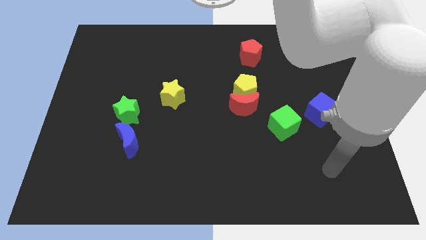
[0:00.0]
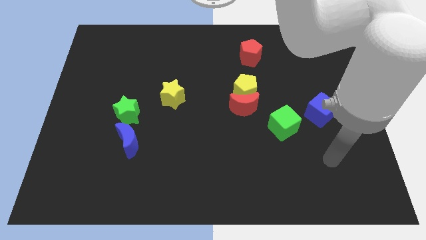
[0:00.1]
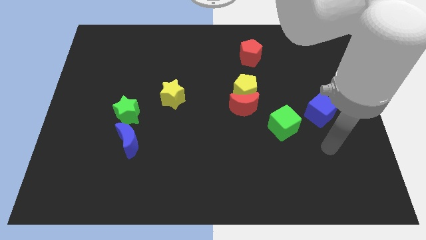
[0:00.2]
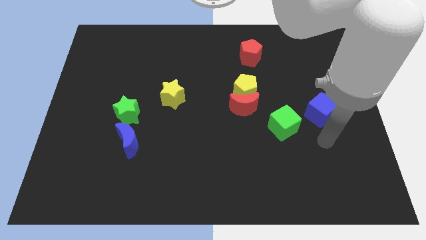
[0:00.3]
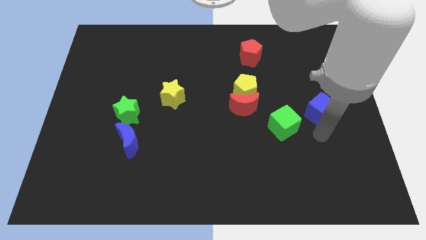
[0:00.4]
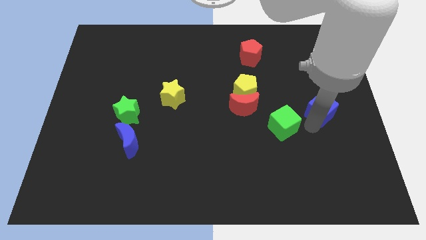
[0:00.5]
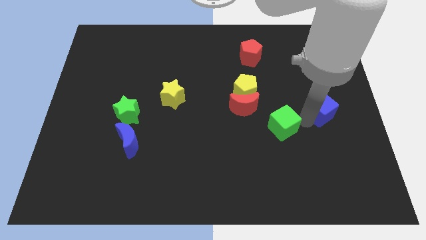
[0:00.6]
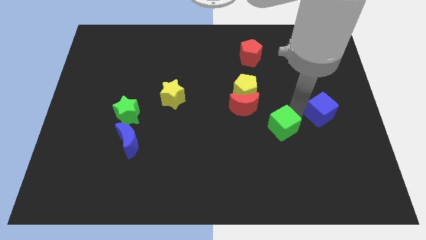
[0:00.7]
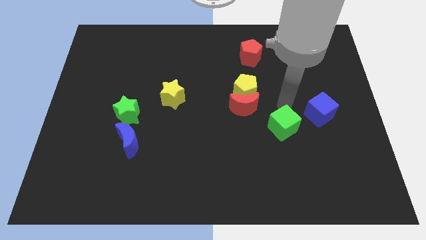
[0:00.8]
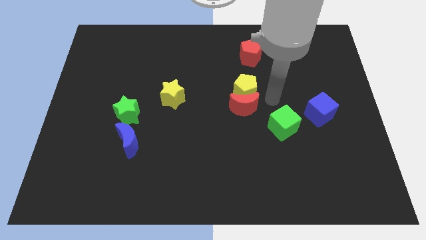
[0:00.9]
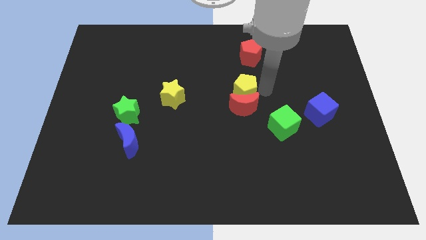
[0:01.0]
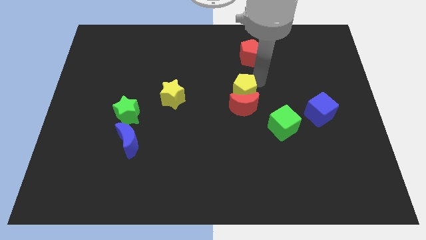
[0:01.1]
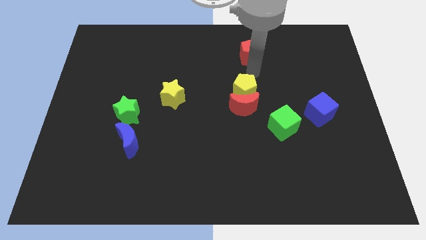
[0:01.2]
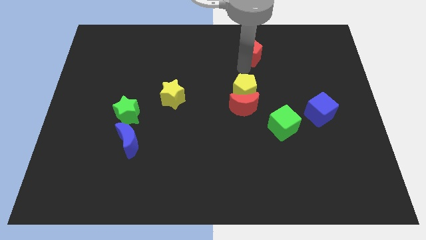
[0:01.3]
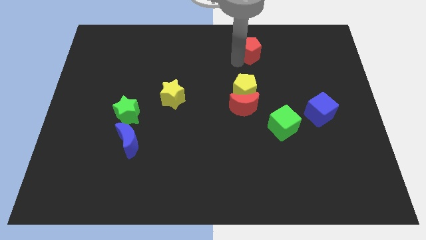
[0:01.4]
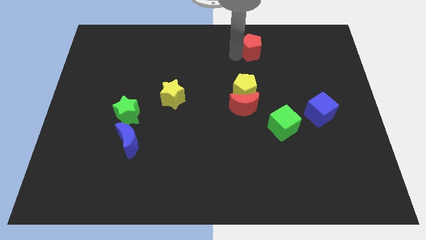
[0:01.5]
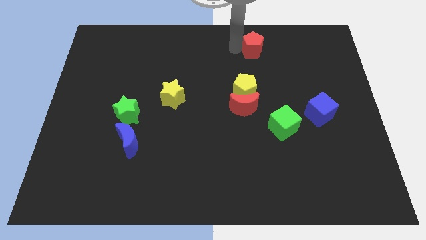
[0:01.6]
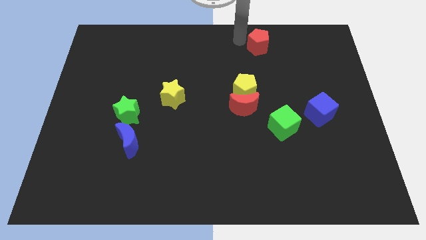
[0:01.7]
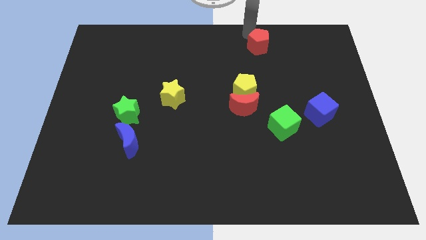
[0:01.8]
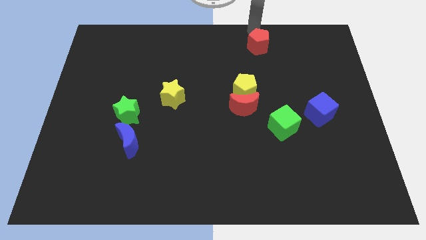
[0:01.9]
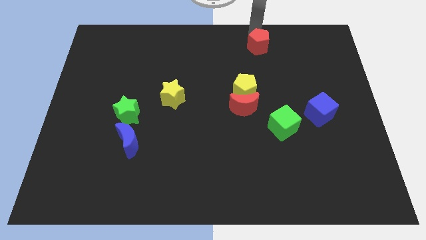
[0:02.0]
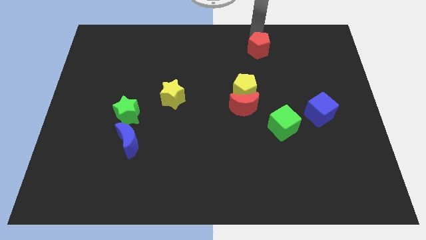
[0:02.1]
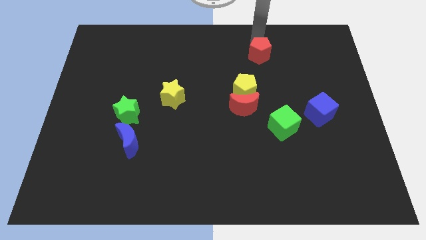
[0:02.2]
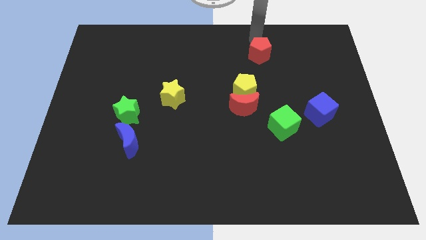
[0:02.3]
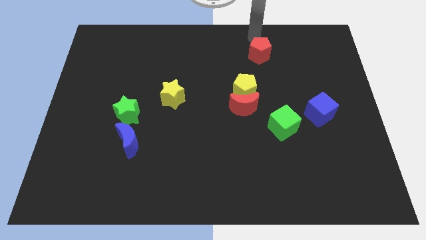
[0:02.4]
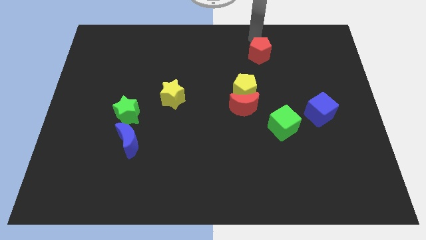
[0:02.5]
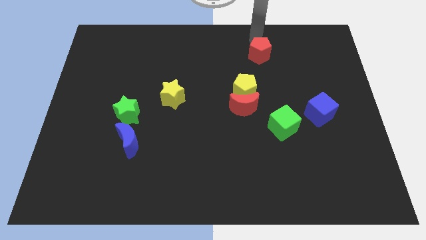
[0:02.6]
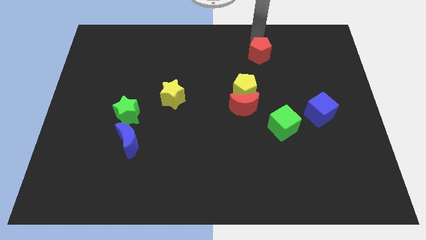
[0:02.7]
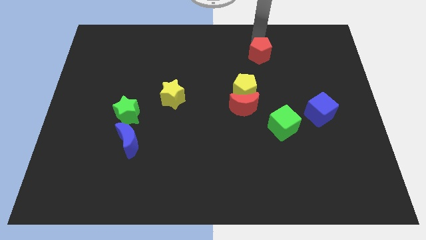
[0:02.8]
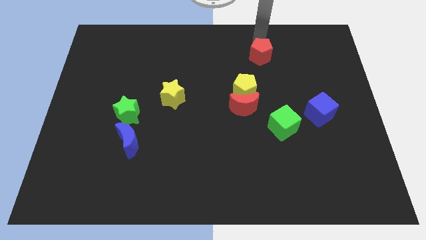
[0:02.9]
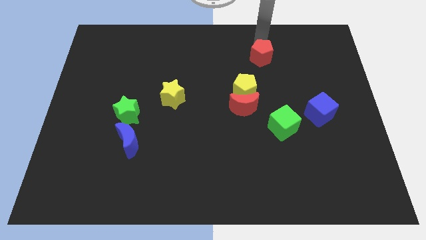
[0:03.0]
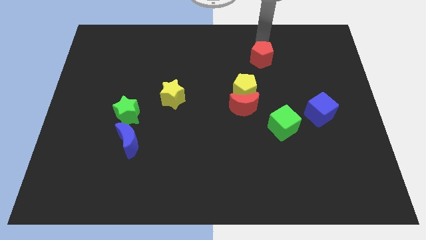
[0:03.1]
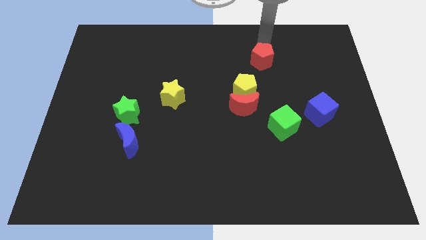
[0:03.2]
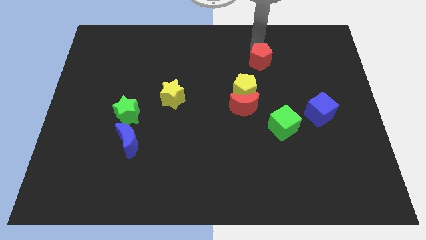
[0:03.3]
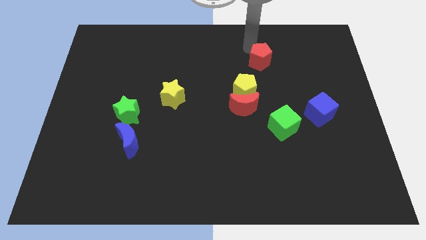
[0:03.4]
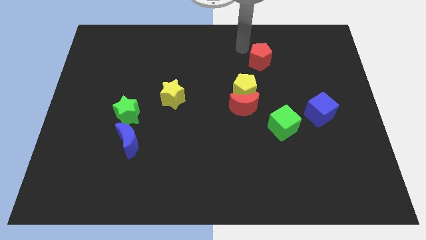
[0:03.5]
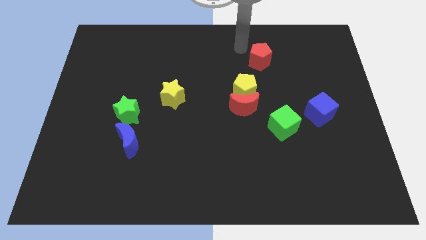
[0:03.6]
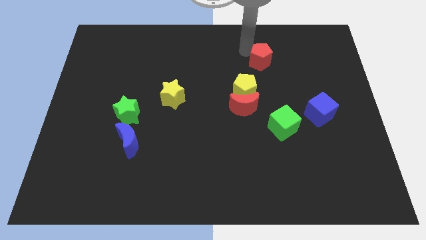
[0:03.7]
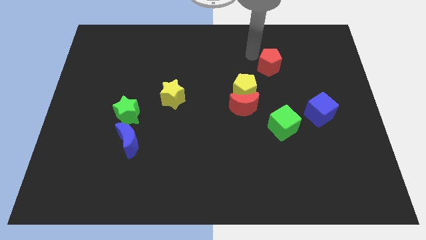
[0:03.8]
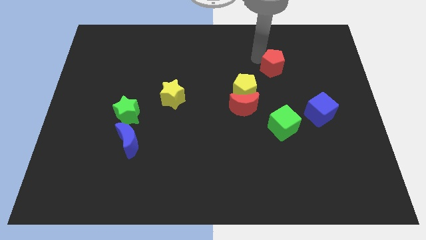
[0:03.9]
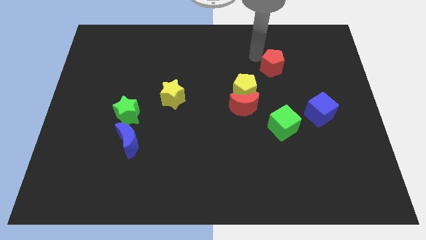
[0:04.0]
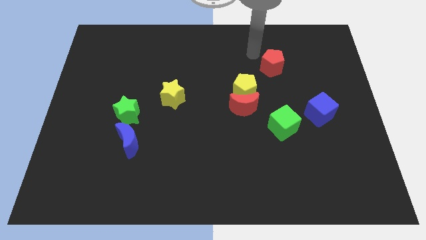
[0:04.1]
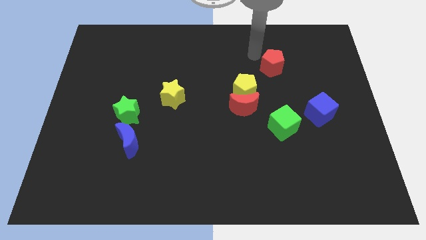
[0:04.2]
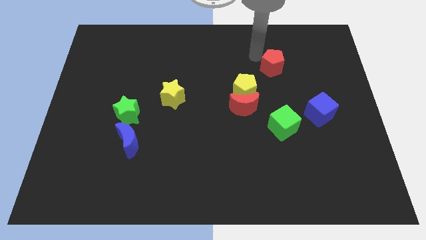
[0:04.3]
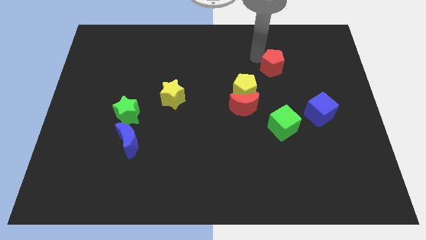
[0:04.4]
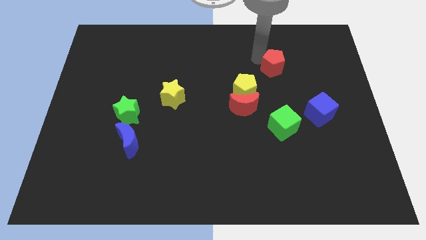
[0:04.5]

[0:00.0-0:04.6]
slightly push the red pentagon diagonally downwards and right

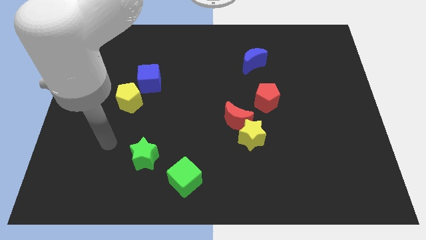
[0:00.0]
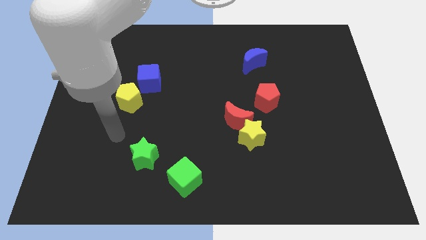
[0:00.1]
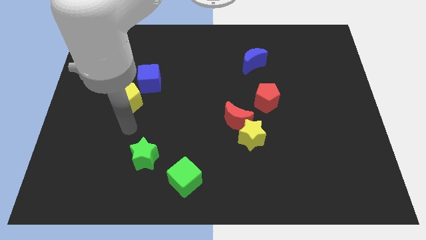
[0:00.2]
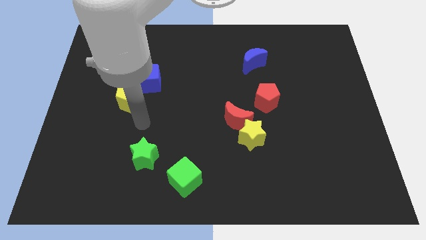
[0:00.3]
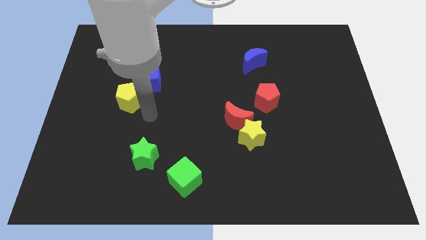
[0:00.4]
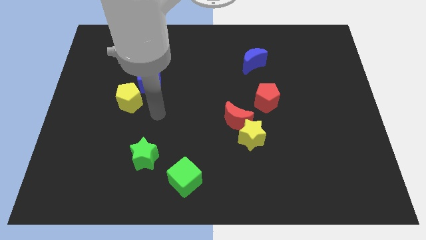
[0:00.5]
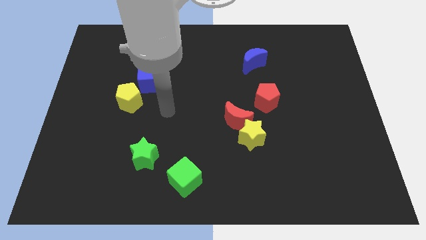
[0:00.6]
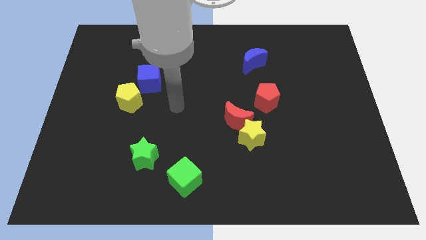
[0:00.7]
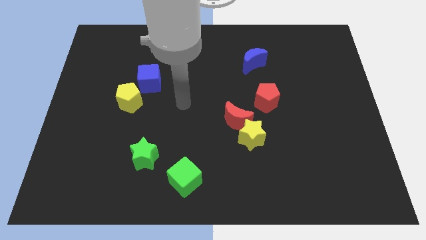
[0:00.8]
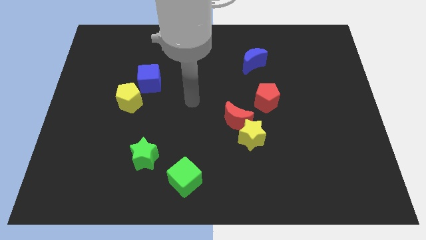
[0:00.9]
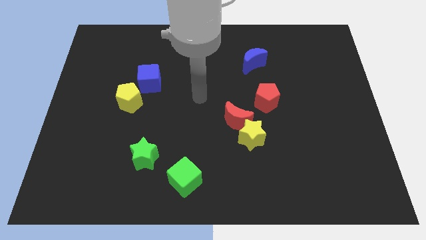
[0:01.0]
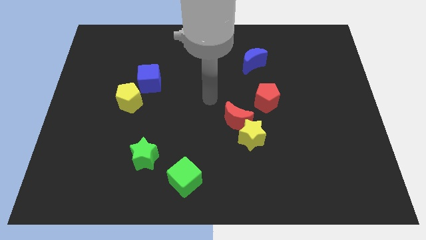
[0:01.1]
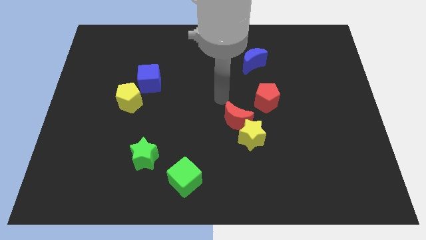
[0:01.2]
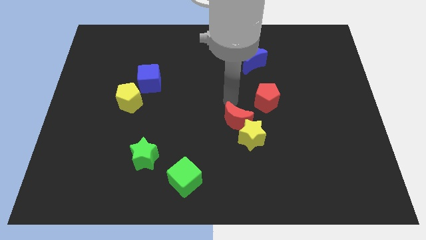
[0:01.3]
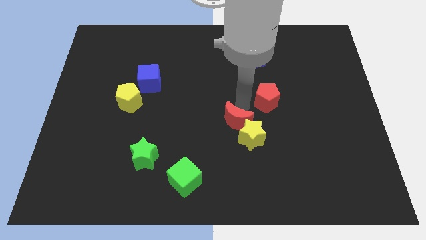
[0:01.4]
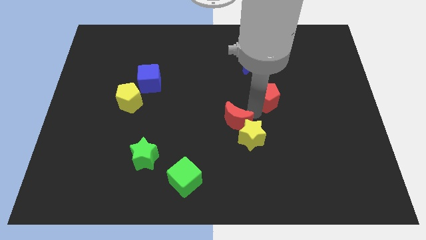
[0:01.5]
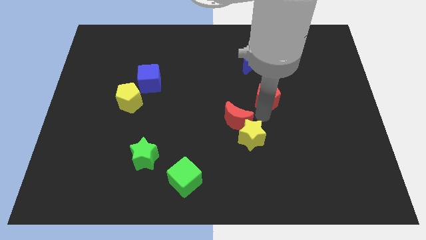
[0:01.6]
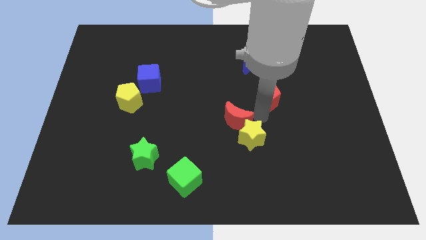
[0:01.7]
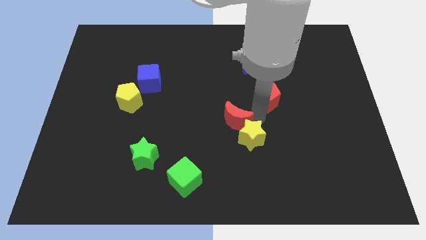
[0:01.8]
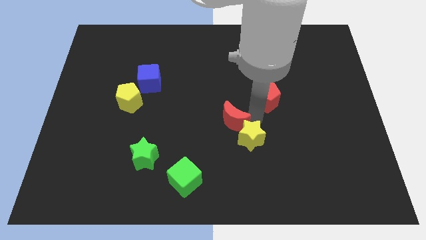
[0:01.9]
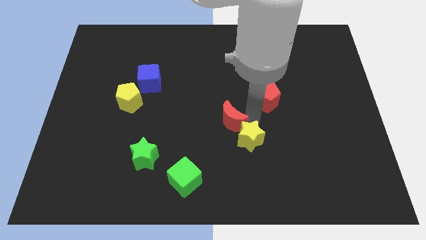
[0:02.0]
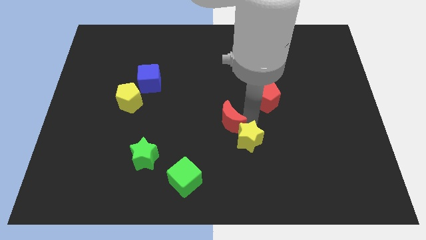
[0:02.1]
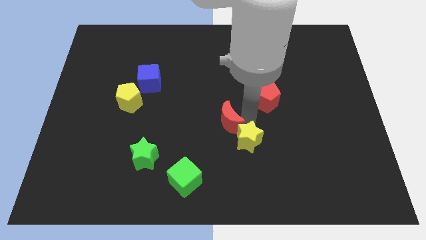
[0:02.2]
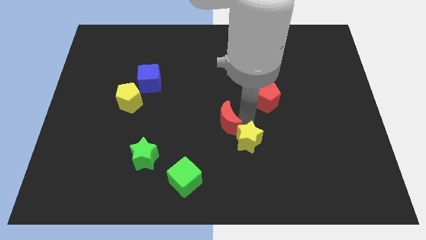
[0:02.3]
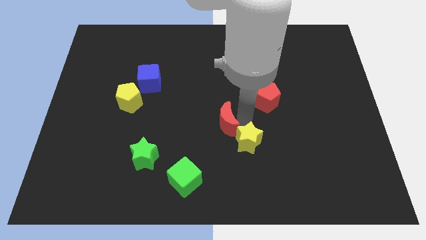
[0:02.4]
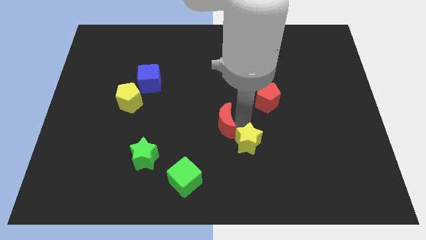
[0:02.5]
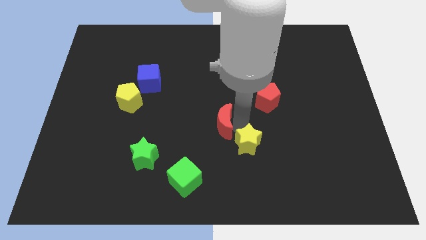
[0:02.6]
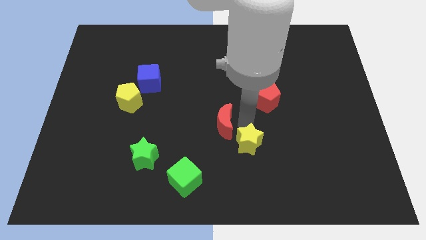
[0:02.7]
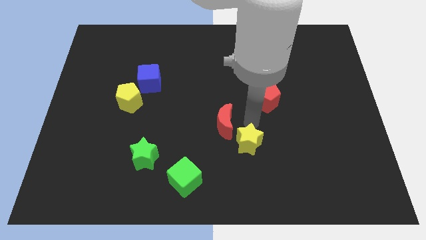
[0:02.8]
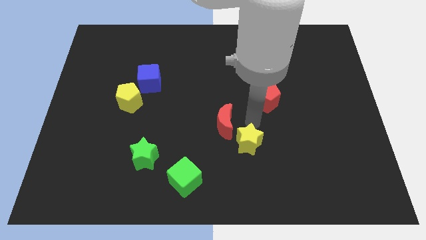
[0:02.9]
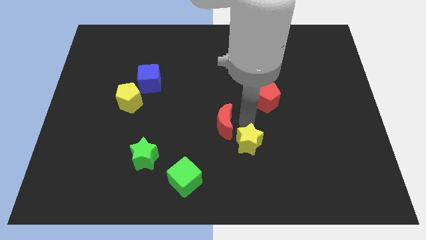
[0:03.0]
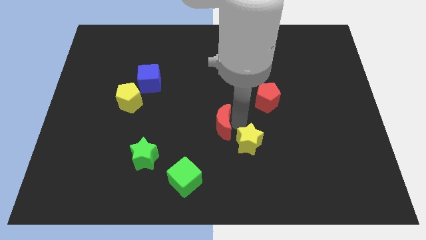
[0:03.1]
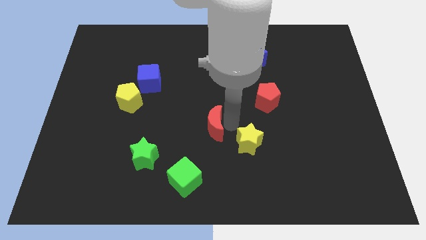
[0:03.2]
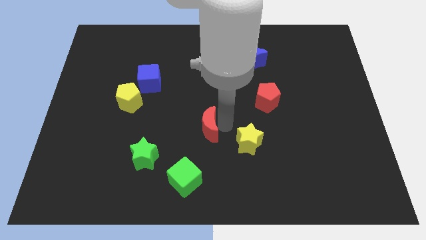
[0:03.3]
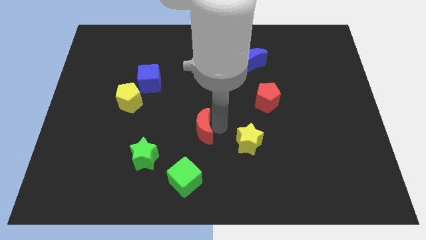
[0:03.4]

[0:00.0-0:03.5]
push the red moon left a little
